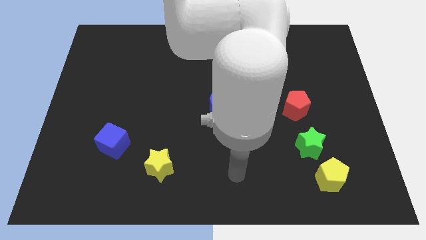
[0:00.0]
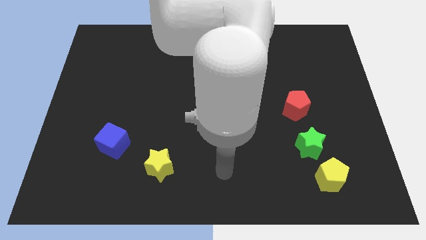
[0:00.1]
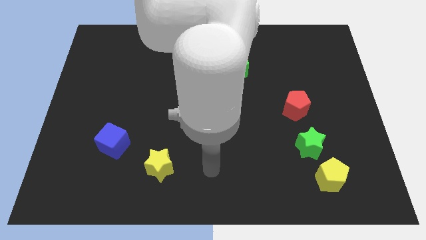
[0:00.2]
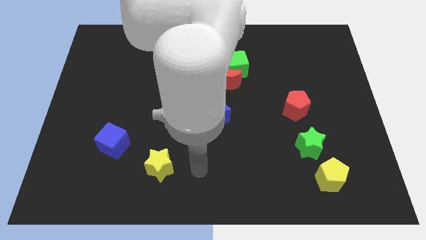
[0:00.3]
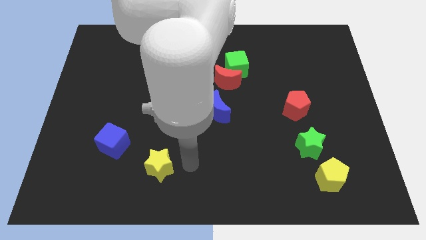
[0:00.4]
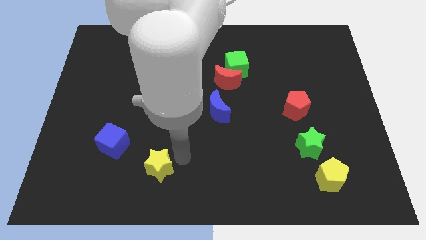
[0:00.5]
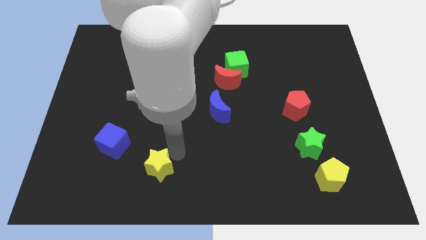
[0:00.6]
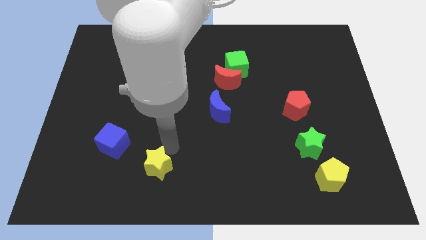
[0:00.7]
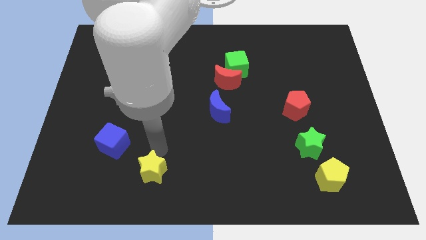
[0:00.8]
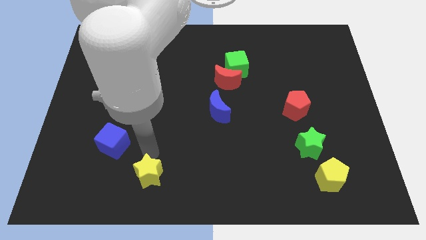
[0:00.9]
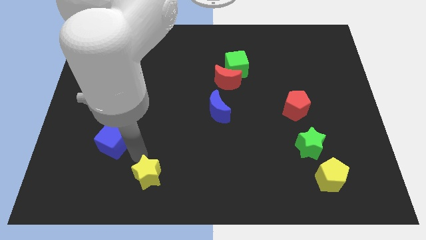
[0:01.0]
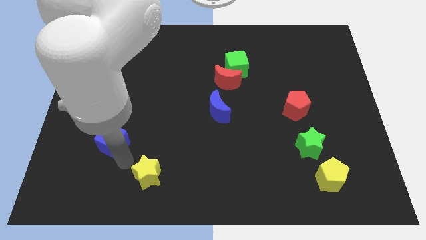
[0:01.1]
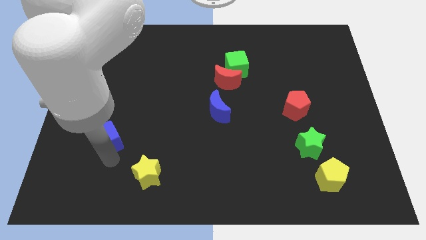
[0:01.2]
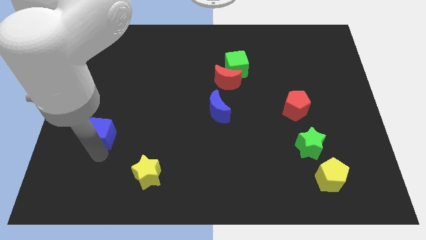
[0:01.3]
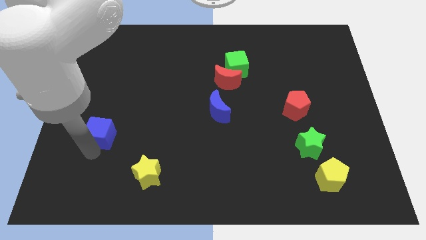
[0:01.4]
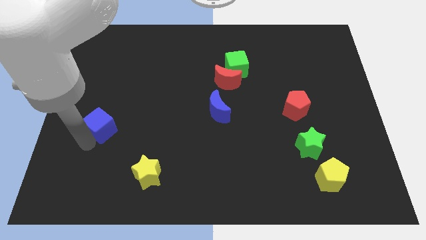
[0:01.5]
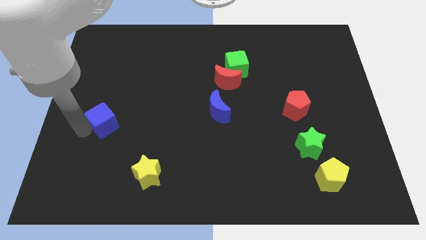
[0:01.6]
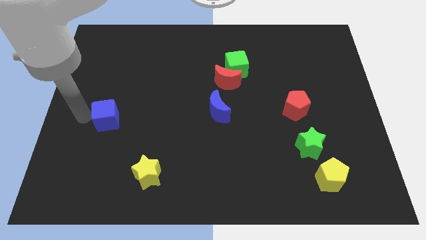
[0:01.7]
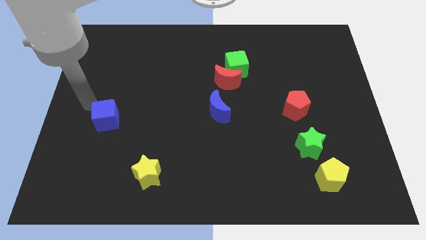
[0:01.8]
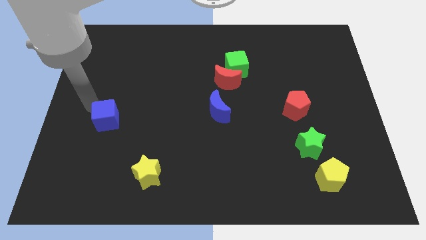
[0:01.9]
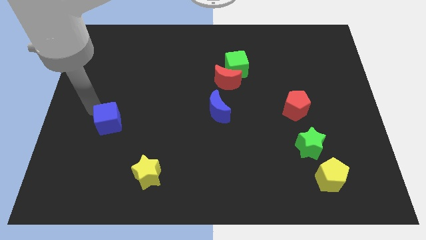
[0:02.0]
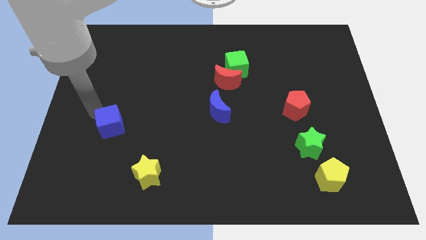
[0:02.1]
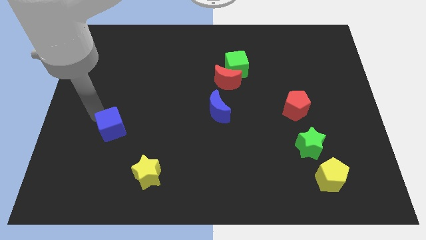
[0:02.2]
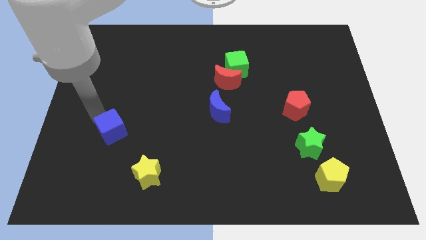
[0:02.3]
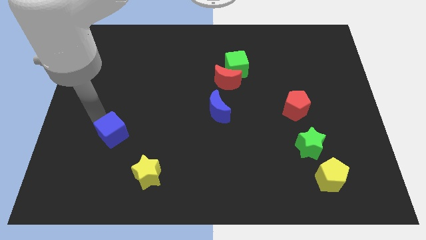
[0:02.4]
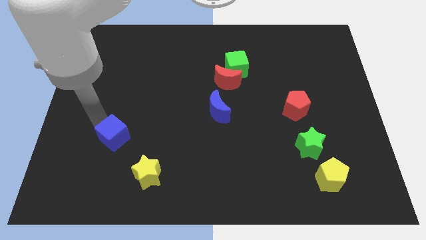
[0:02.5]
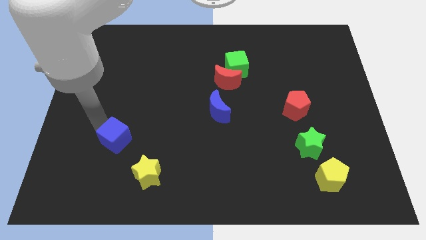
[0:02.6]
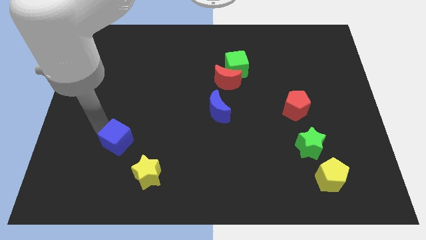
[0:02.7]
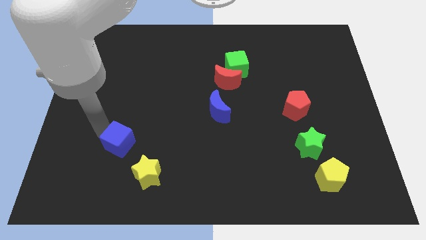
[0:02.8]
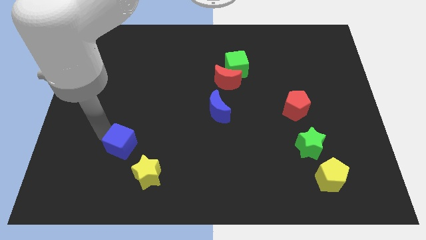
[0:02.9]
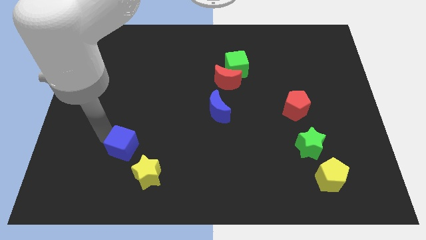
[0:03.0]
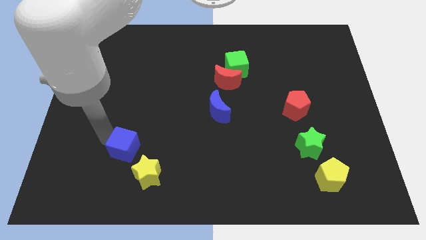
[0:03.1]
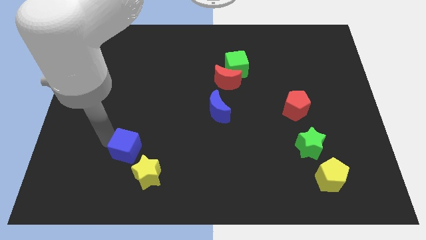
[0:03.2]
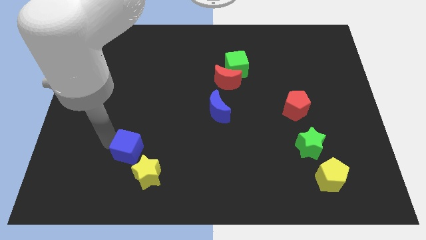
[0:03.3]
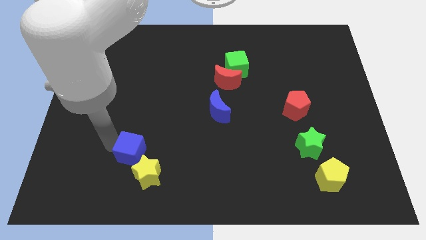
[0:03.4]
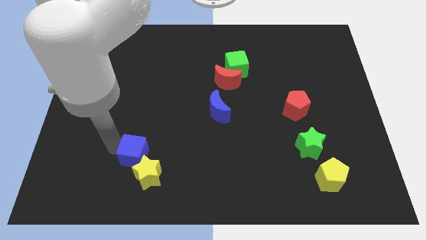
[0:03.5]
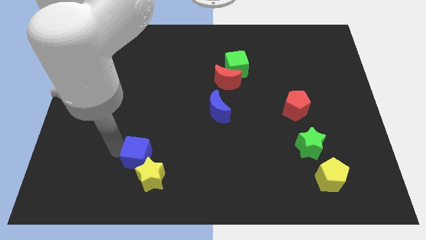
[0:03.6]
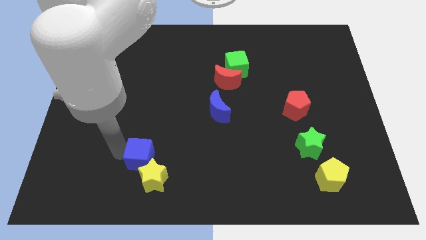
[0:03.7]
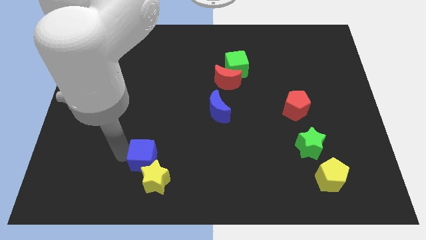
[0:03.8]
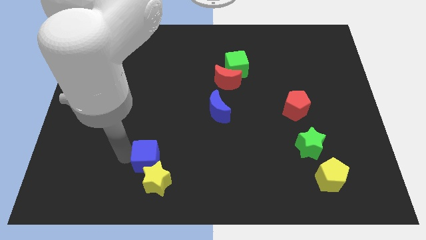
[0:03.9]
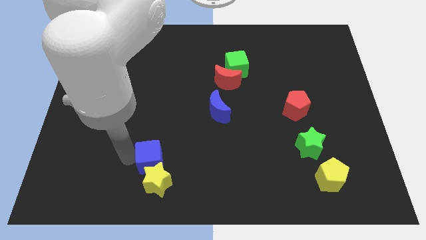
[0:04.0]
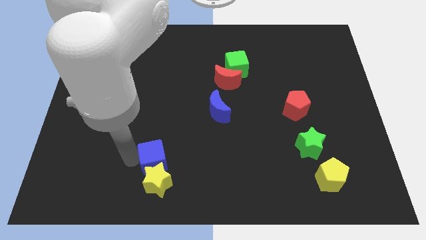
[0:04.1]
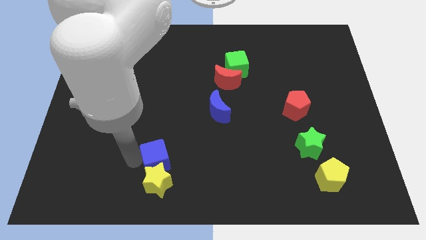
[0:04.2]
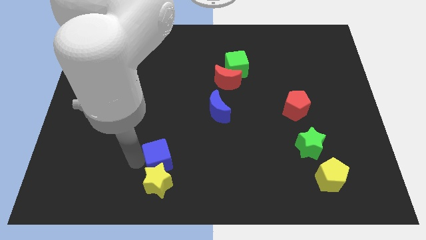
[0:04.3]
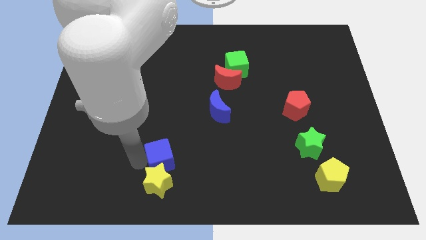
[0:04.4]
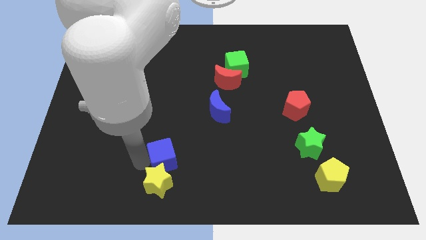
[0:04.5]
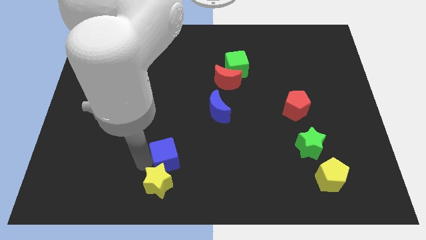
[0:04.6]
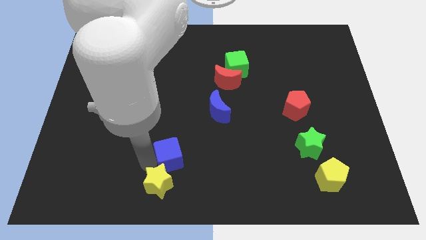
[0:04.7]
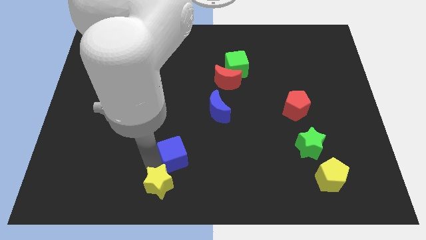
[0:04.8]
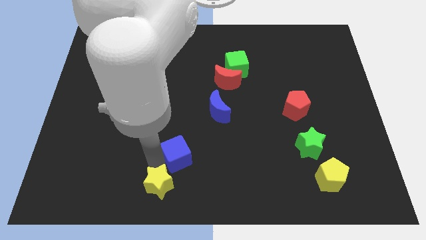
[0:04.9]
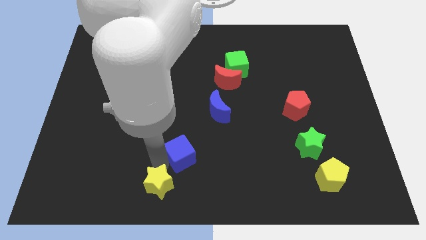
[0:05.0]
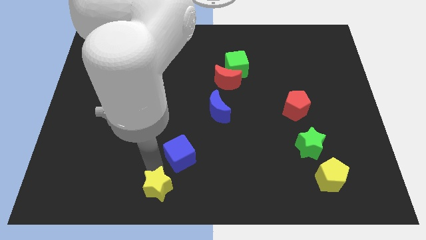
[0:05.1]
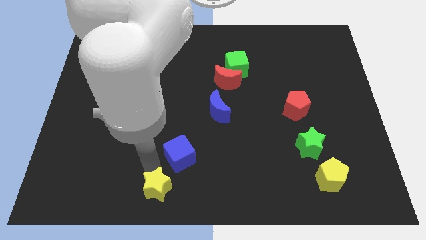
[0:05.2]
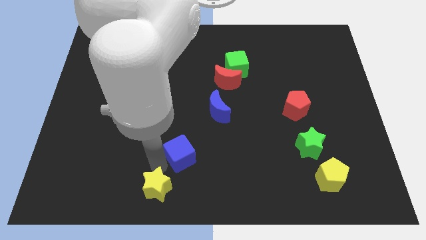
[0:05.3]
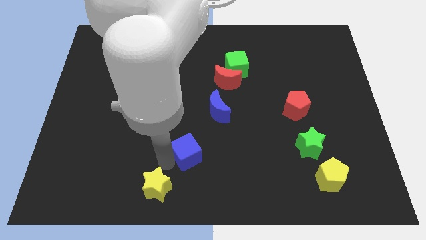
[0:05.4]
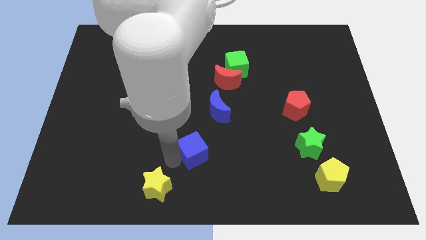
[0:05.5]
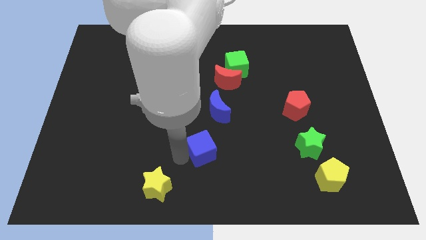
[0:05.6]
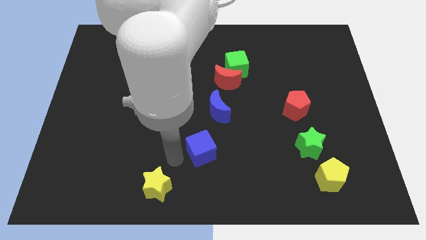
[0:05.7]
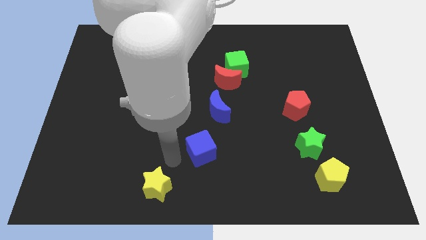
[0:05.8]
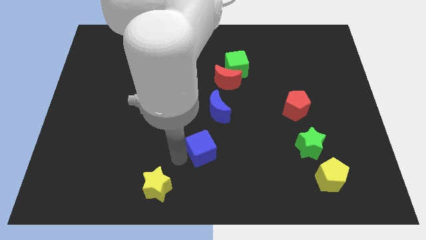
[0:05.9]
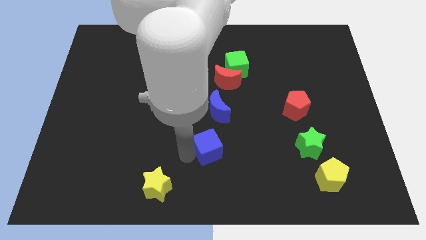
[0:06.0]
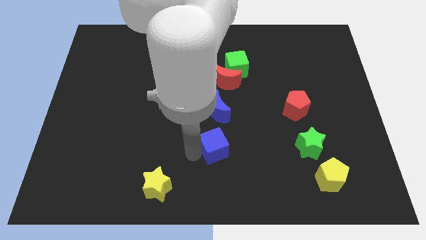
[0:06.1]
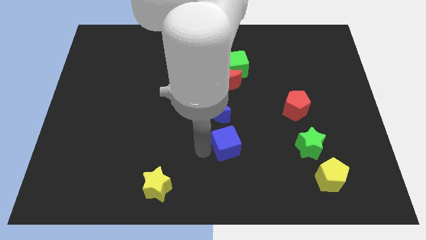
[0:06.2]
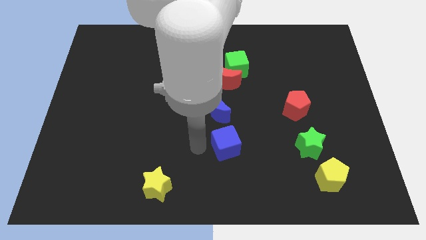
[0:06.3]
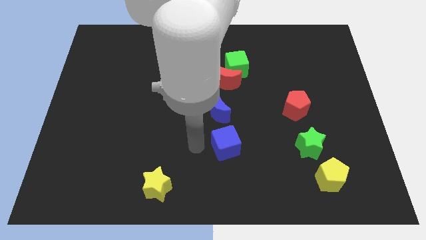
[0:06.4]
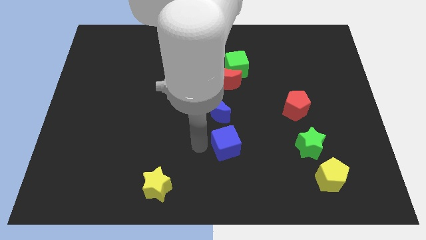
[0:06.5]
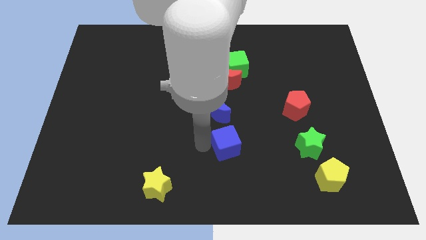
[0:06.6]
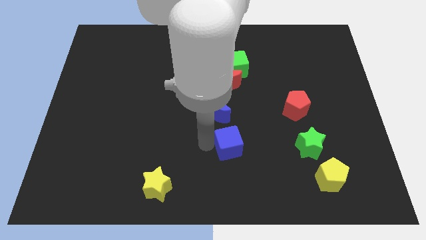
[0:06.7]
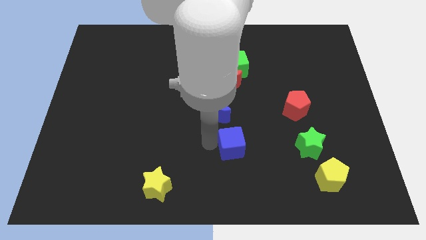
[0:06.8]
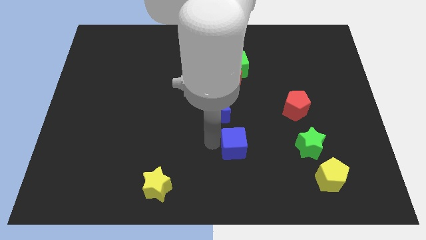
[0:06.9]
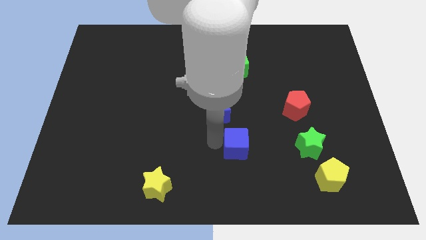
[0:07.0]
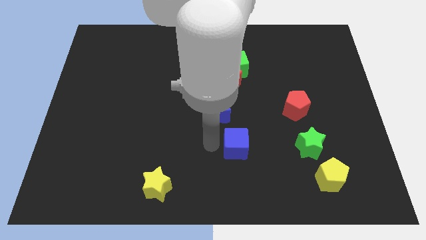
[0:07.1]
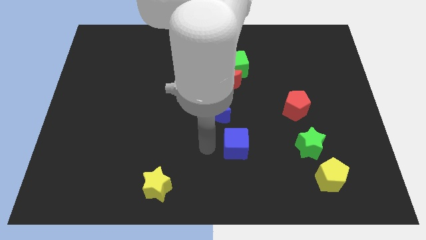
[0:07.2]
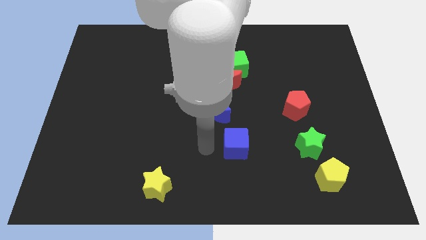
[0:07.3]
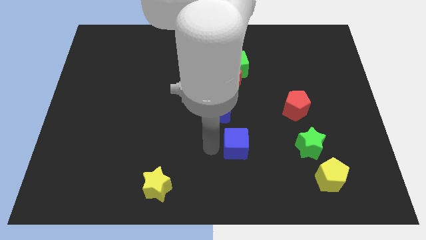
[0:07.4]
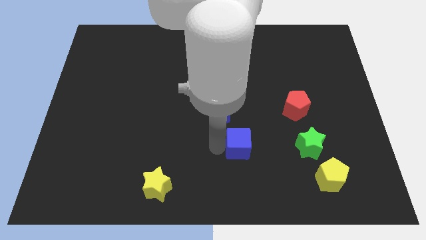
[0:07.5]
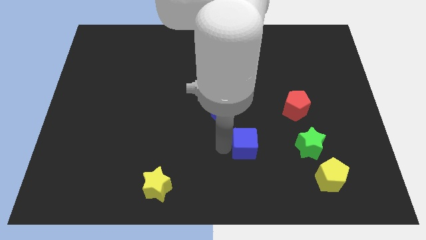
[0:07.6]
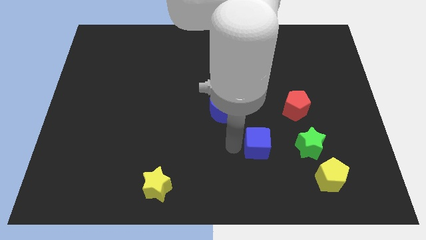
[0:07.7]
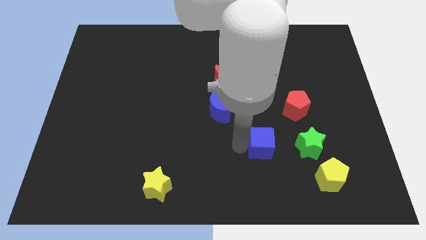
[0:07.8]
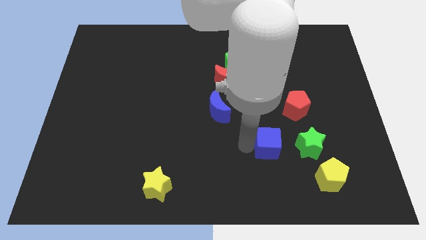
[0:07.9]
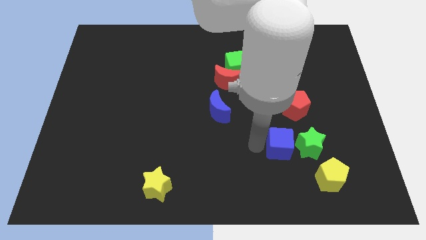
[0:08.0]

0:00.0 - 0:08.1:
slide the blue cube close to the green star
